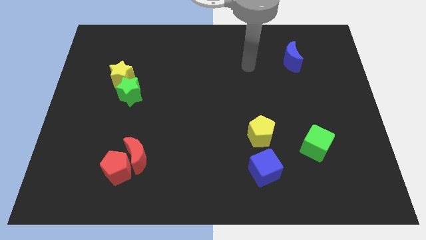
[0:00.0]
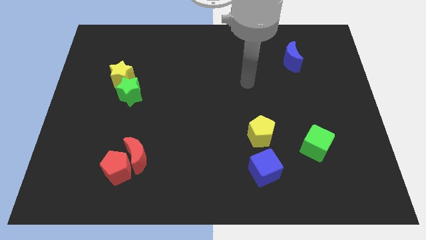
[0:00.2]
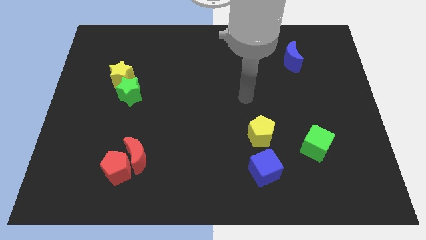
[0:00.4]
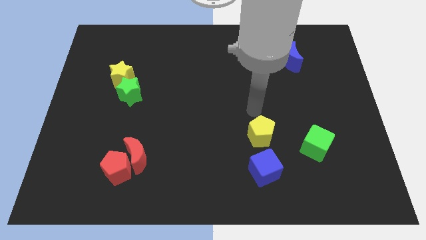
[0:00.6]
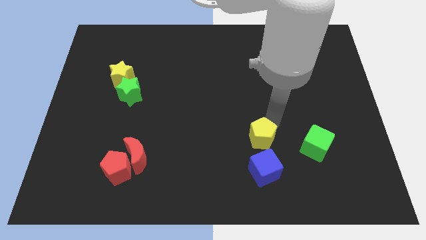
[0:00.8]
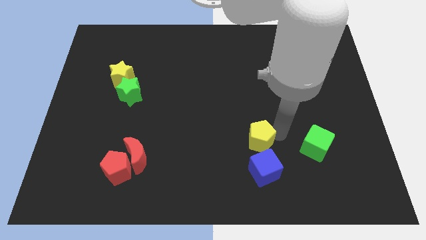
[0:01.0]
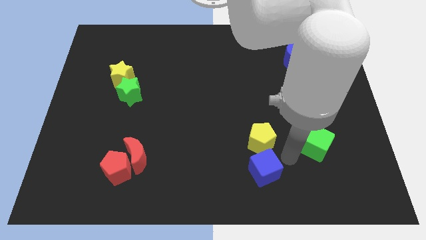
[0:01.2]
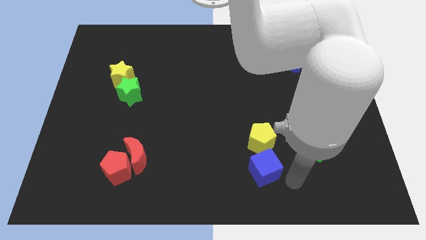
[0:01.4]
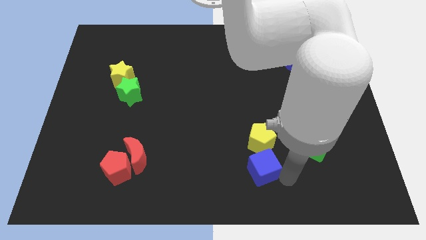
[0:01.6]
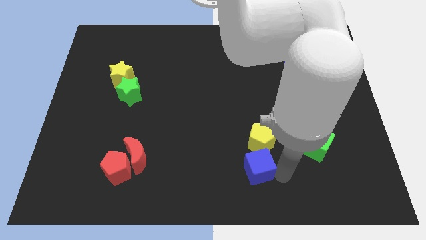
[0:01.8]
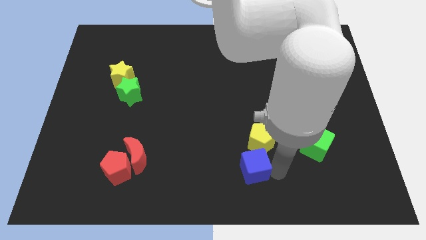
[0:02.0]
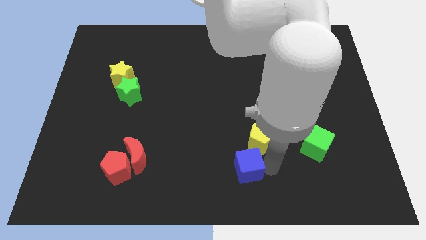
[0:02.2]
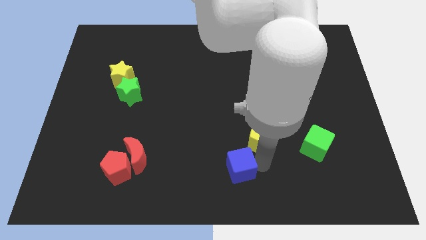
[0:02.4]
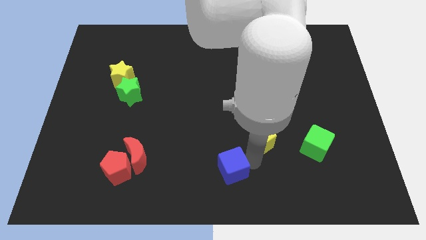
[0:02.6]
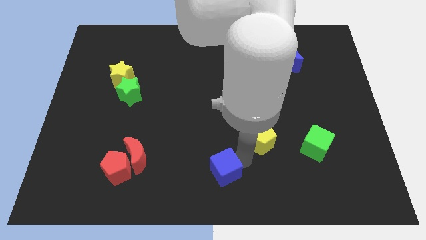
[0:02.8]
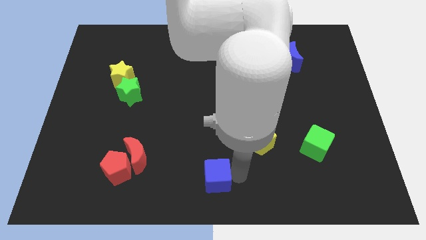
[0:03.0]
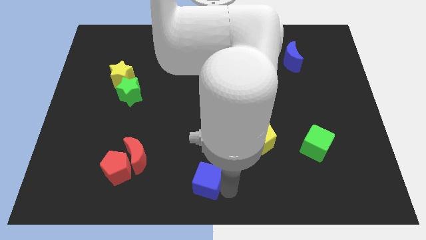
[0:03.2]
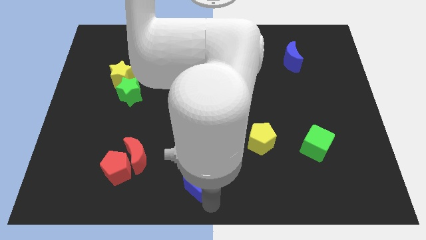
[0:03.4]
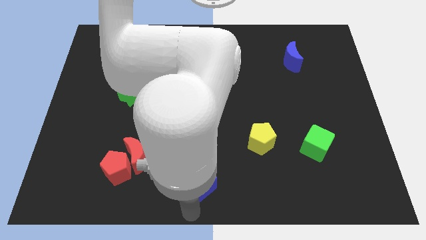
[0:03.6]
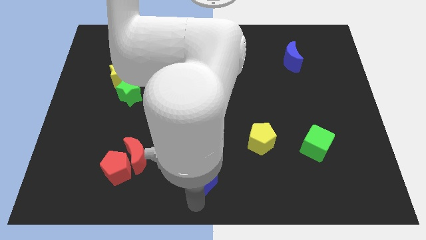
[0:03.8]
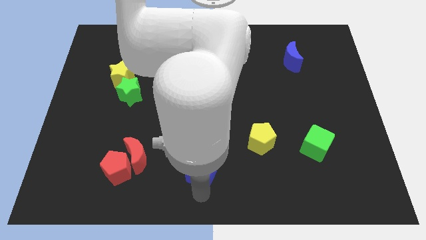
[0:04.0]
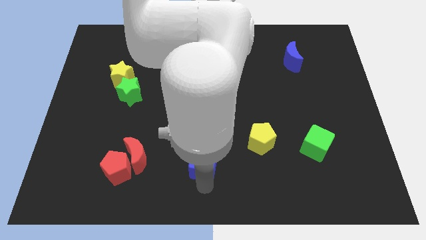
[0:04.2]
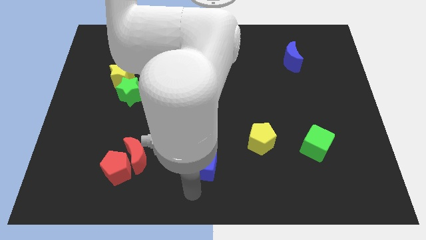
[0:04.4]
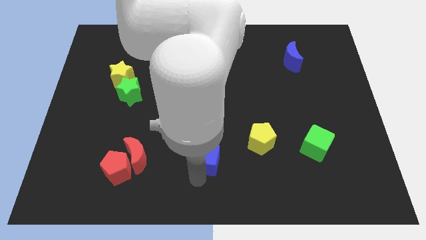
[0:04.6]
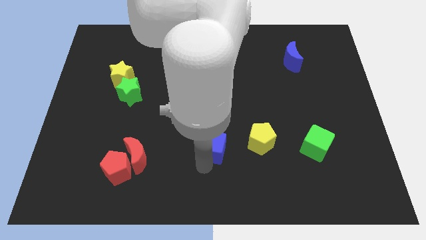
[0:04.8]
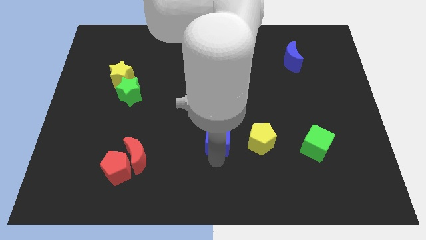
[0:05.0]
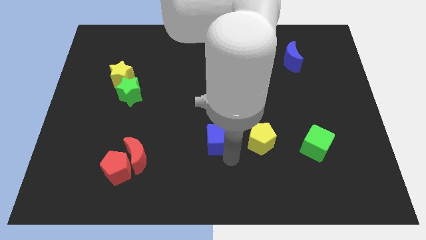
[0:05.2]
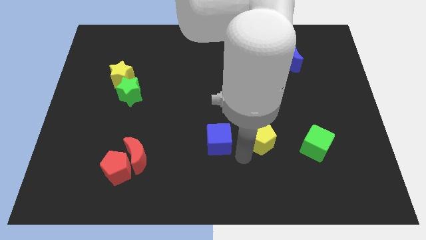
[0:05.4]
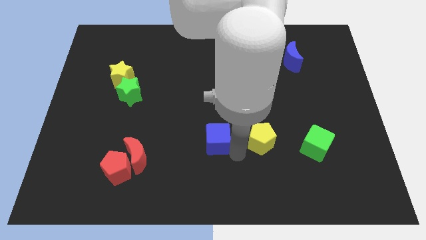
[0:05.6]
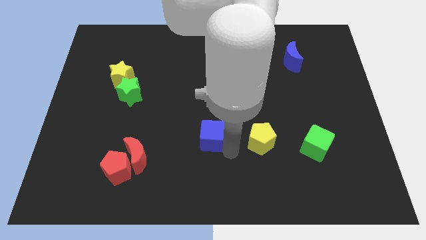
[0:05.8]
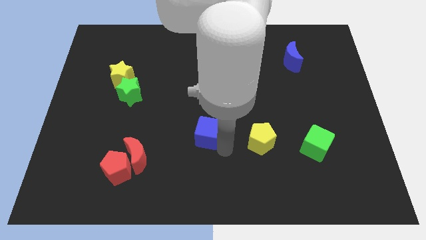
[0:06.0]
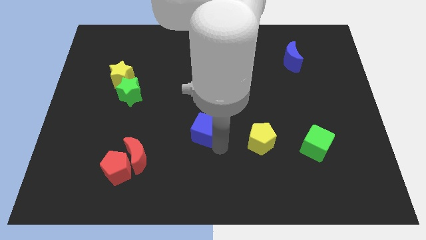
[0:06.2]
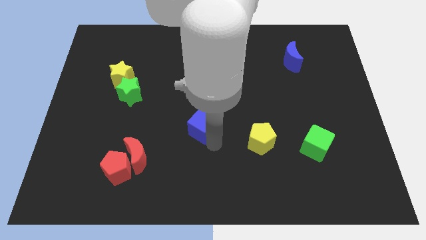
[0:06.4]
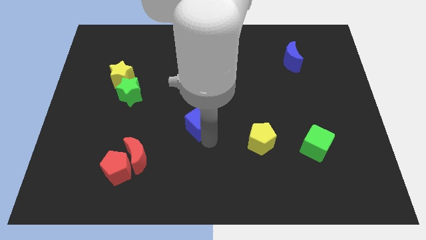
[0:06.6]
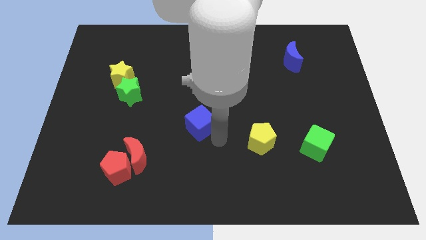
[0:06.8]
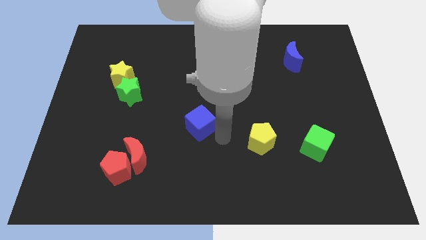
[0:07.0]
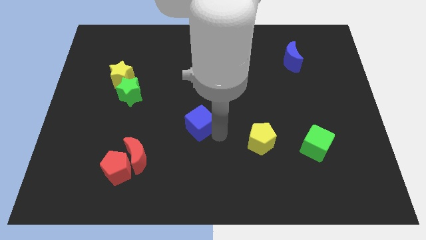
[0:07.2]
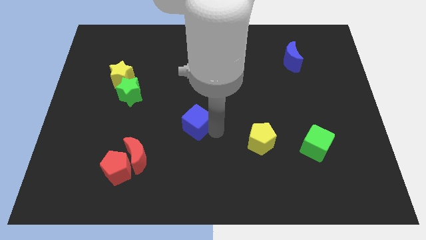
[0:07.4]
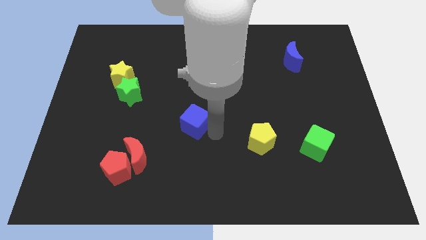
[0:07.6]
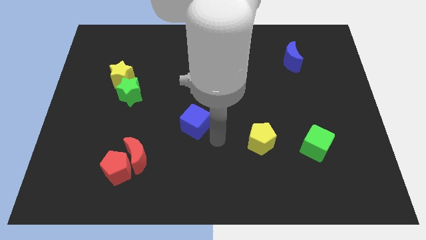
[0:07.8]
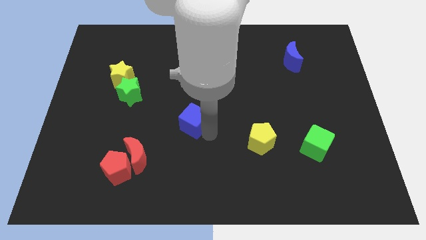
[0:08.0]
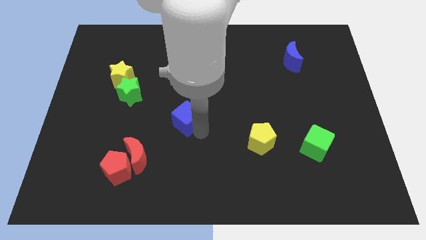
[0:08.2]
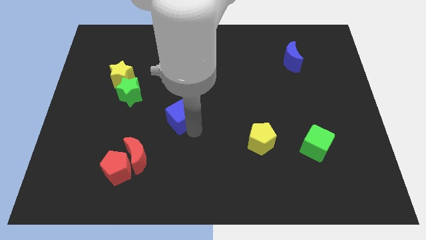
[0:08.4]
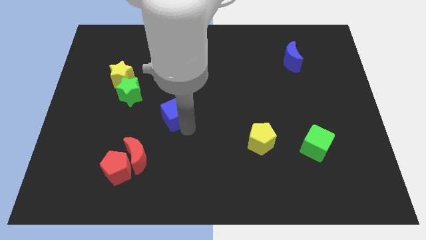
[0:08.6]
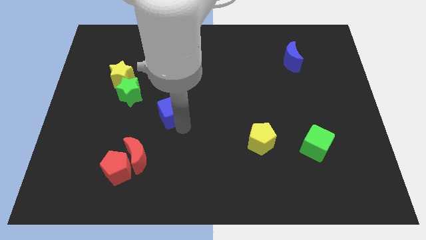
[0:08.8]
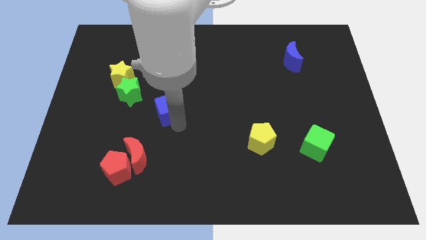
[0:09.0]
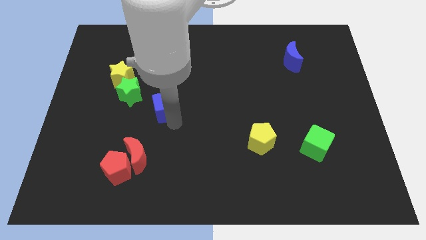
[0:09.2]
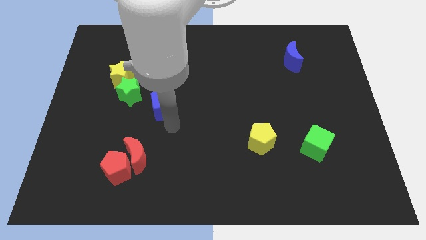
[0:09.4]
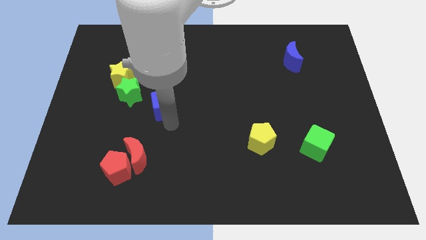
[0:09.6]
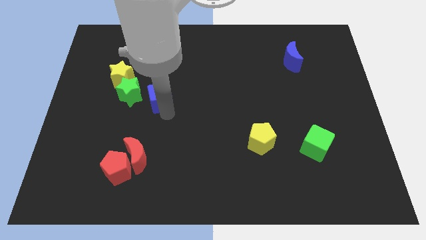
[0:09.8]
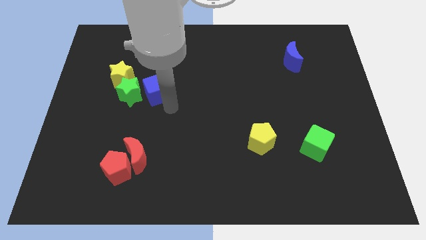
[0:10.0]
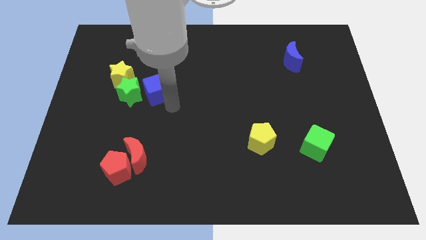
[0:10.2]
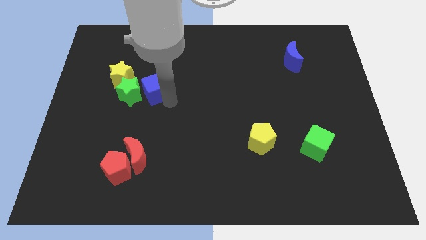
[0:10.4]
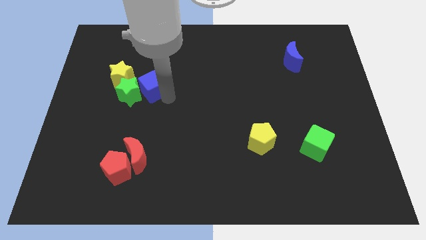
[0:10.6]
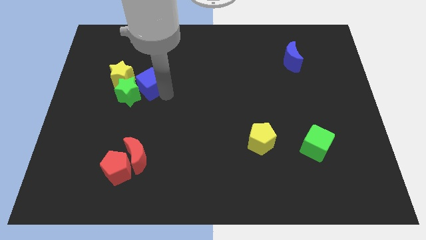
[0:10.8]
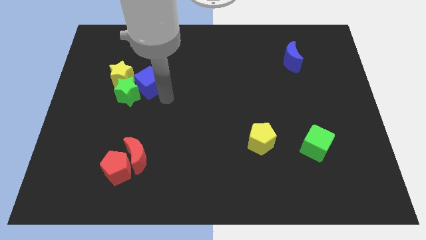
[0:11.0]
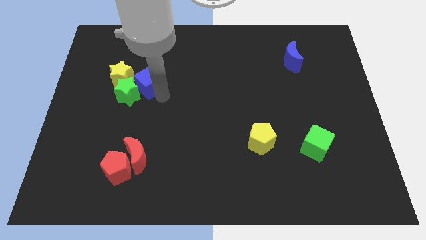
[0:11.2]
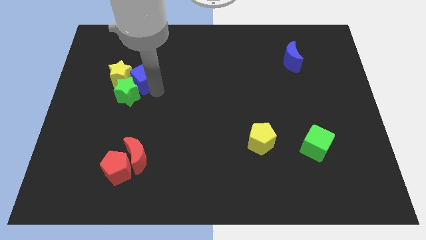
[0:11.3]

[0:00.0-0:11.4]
move the blue cube towards the yellow star

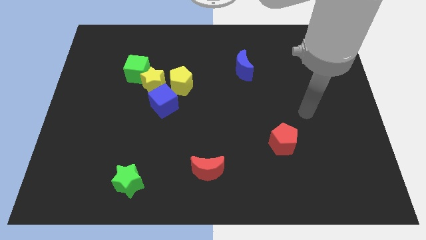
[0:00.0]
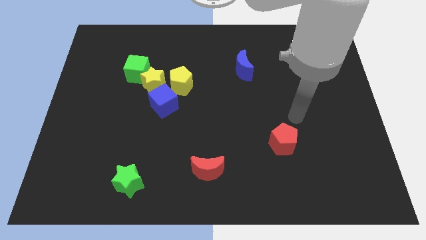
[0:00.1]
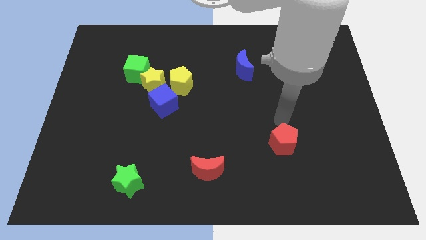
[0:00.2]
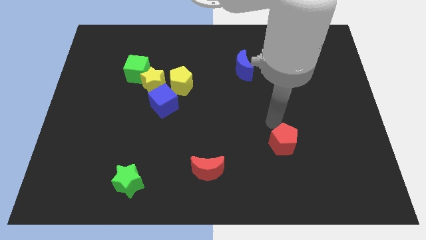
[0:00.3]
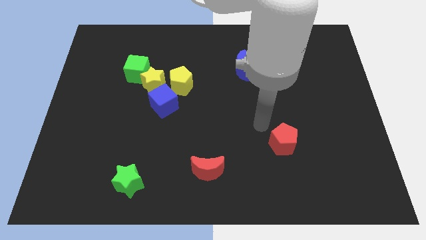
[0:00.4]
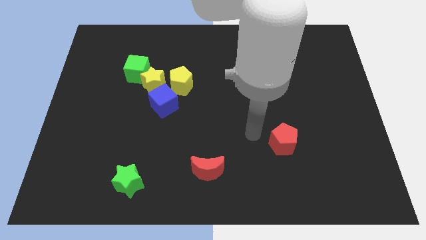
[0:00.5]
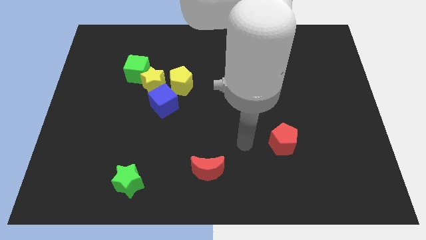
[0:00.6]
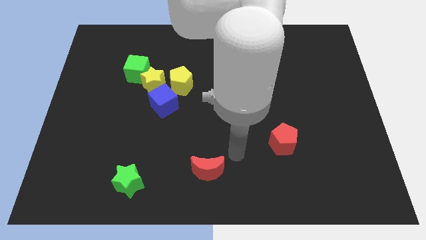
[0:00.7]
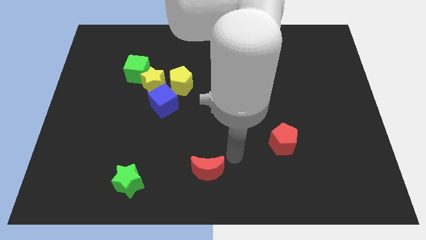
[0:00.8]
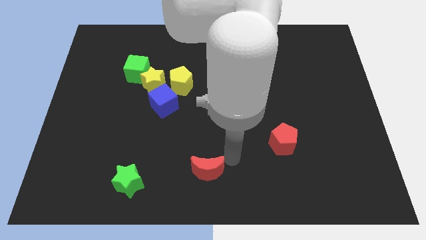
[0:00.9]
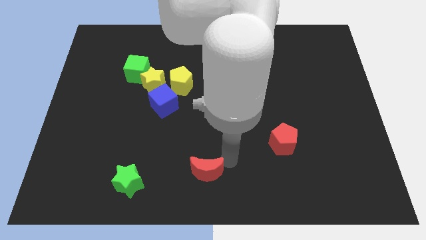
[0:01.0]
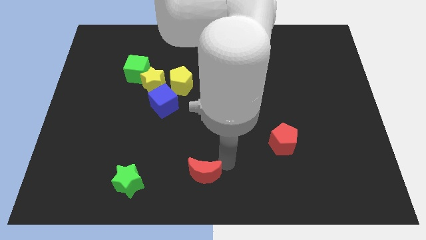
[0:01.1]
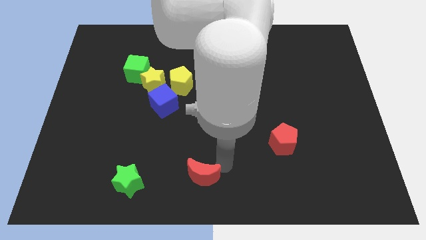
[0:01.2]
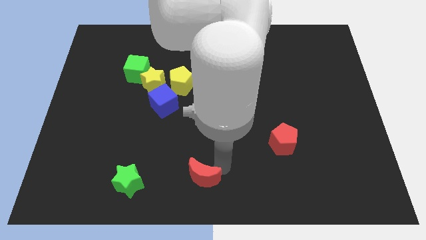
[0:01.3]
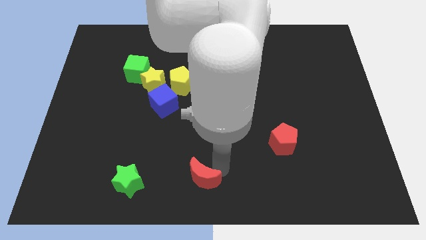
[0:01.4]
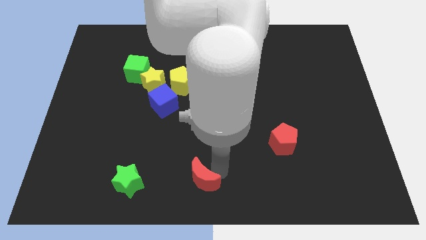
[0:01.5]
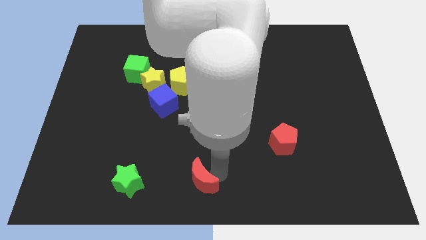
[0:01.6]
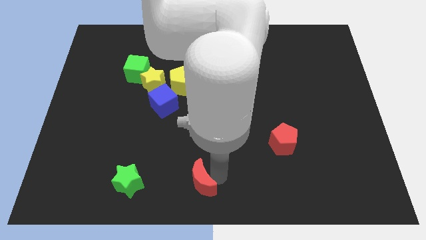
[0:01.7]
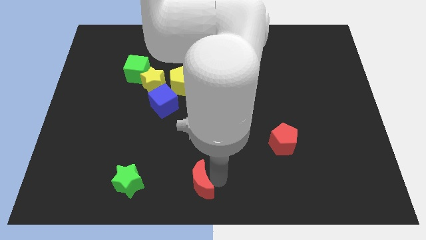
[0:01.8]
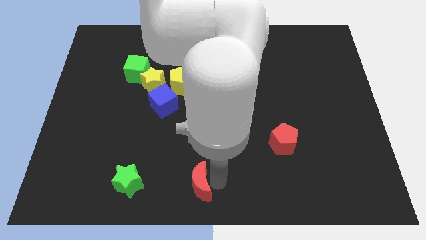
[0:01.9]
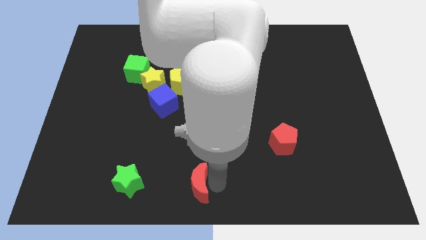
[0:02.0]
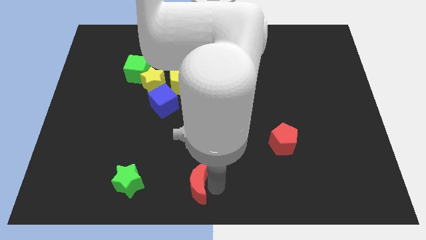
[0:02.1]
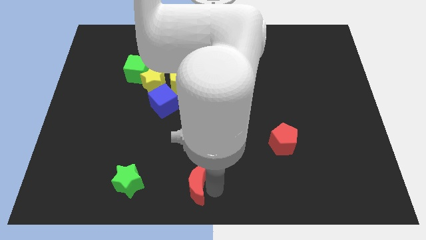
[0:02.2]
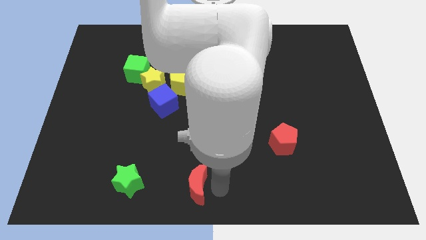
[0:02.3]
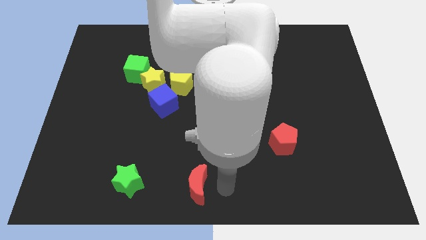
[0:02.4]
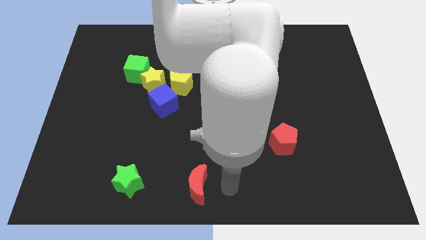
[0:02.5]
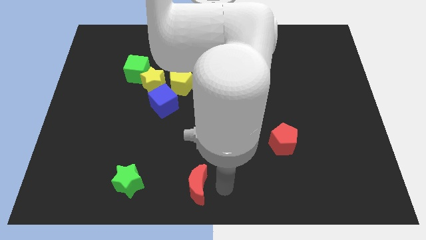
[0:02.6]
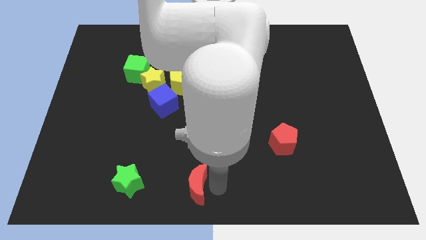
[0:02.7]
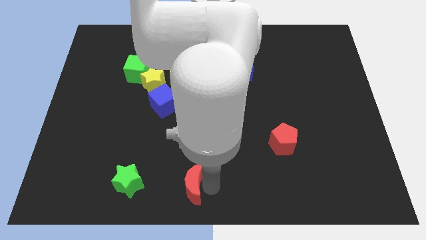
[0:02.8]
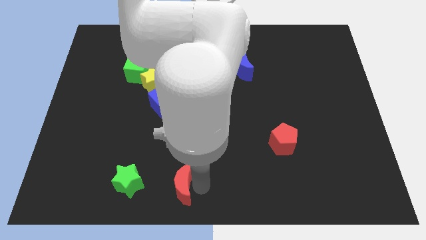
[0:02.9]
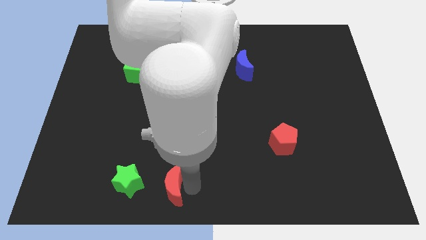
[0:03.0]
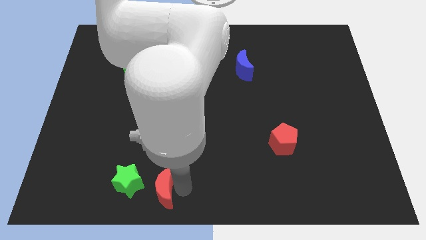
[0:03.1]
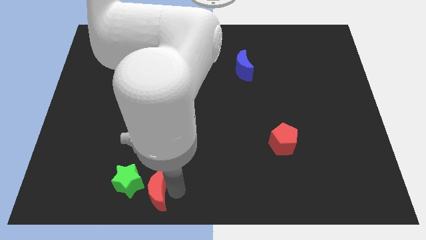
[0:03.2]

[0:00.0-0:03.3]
put the red moon next to the green star
